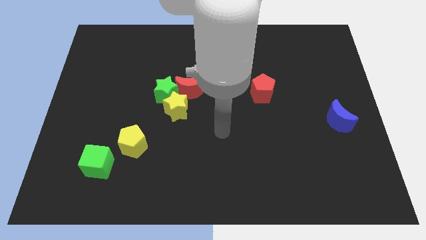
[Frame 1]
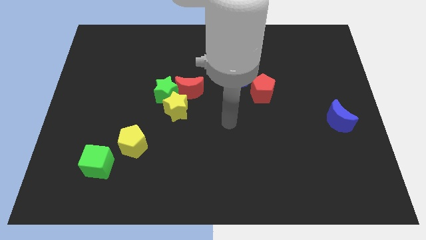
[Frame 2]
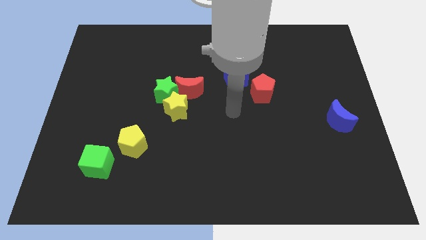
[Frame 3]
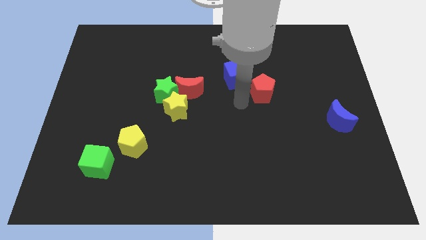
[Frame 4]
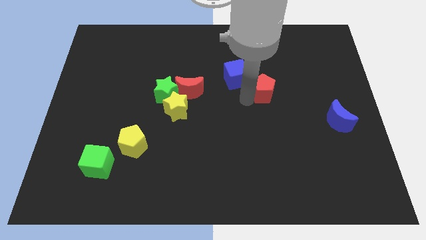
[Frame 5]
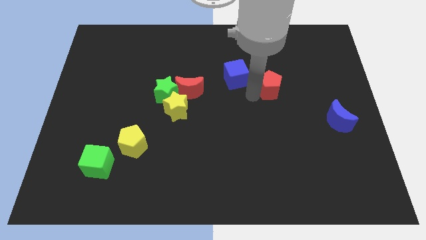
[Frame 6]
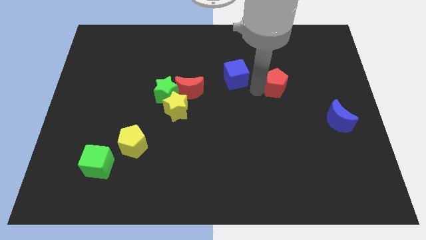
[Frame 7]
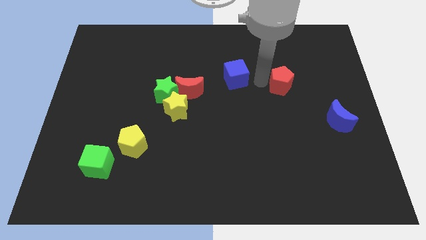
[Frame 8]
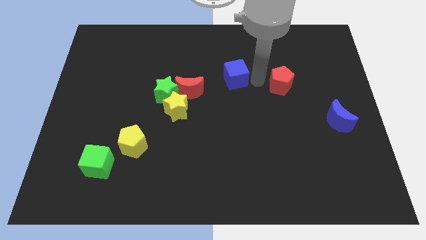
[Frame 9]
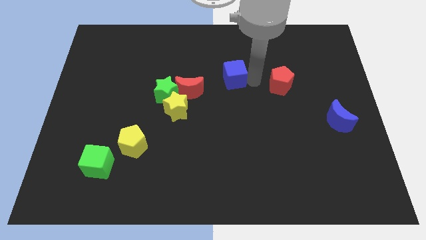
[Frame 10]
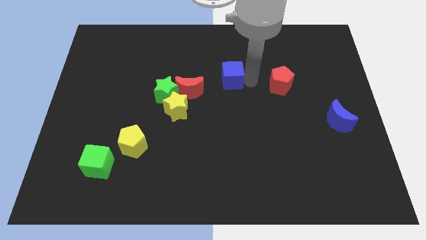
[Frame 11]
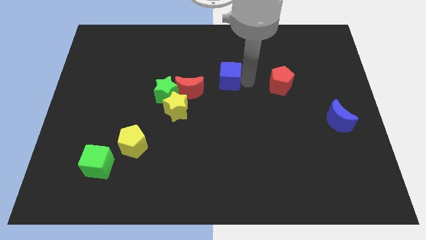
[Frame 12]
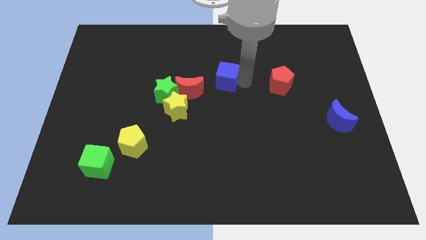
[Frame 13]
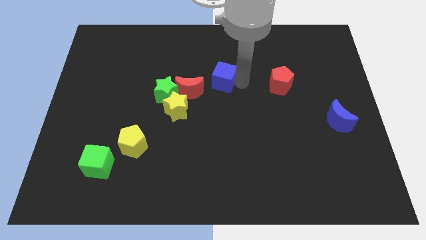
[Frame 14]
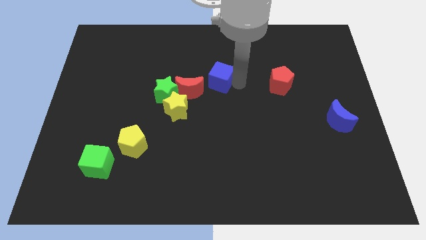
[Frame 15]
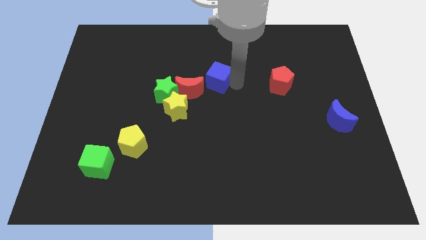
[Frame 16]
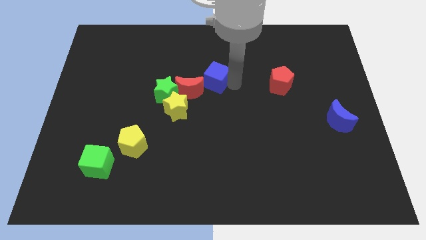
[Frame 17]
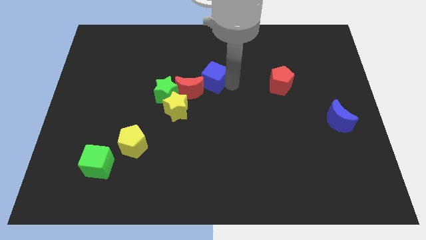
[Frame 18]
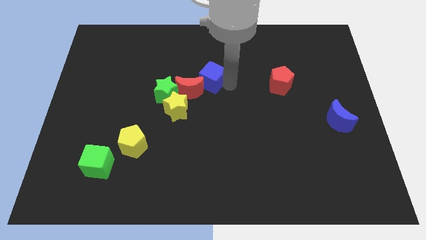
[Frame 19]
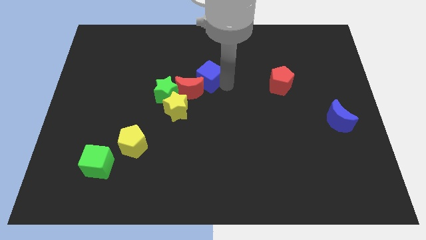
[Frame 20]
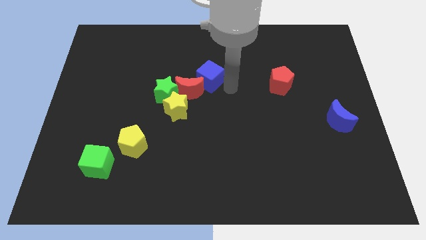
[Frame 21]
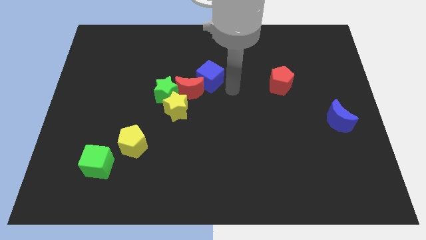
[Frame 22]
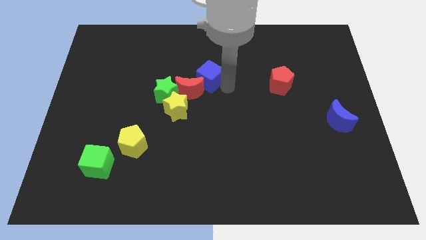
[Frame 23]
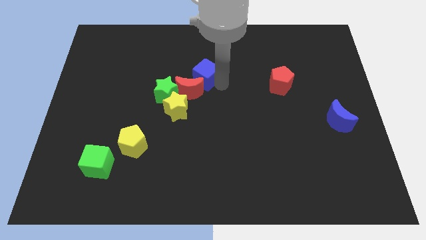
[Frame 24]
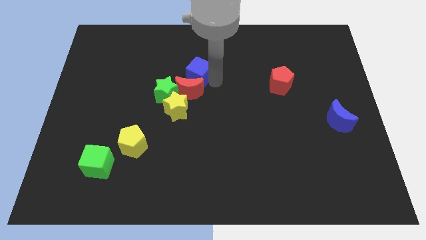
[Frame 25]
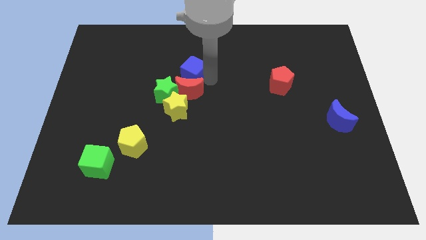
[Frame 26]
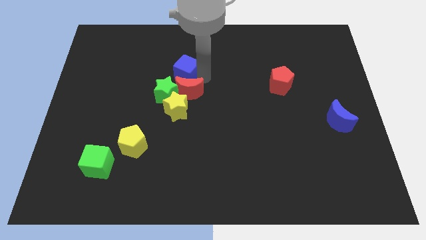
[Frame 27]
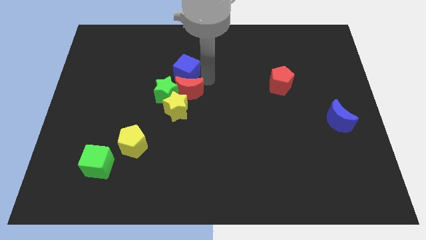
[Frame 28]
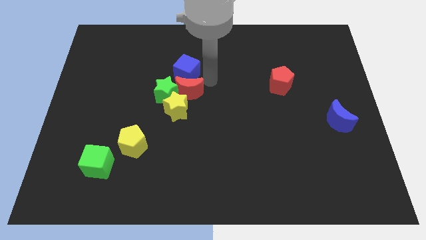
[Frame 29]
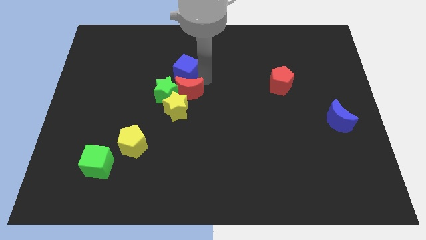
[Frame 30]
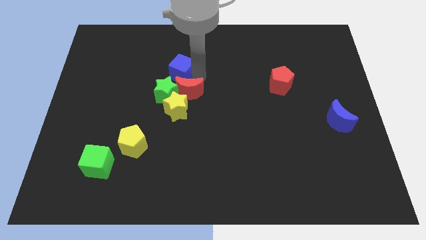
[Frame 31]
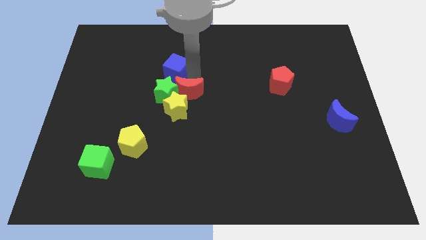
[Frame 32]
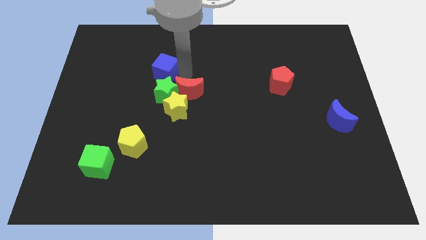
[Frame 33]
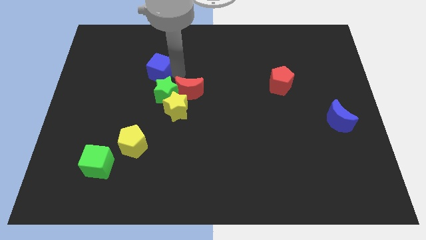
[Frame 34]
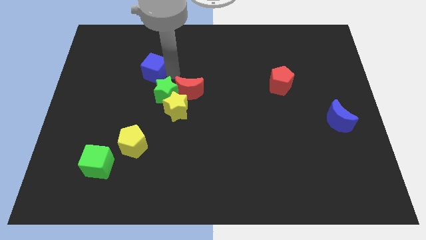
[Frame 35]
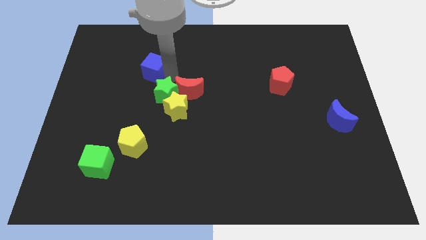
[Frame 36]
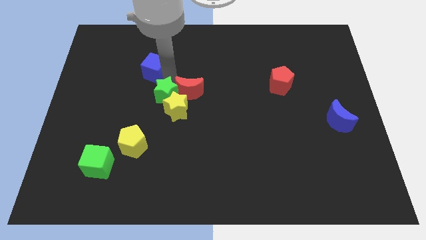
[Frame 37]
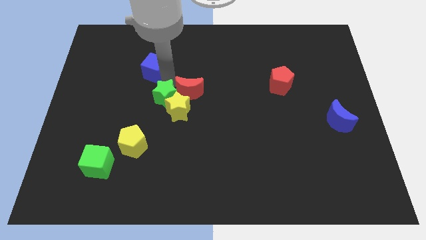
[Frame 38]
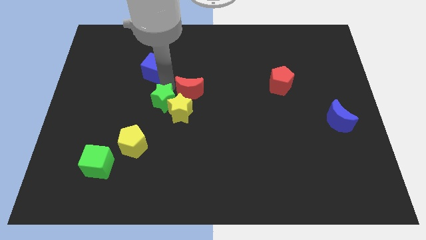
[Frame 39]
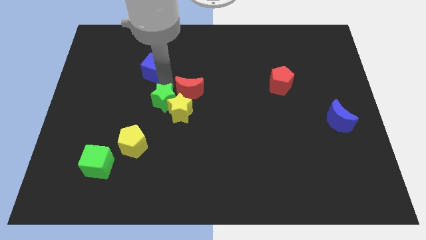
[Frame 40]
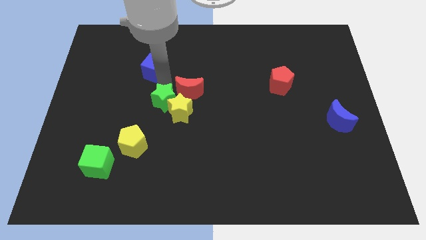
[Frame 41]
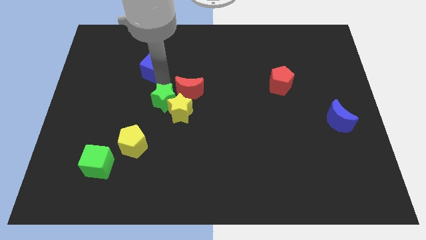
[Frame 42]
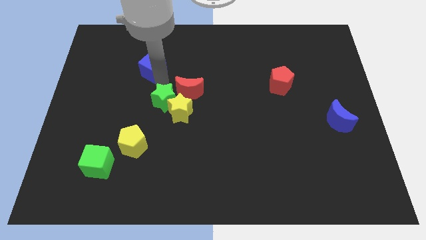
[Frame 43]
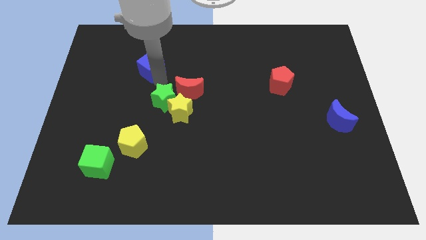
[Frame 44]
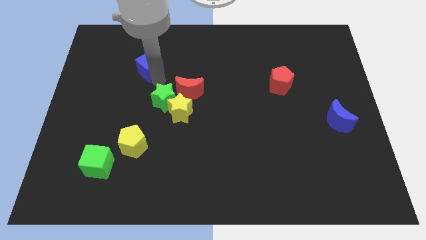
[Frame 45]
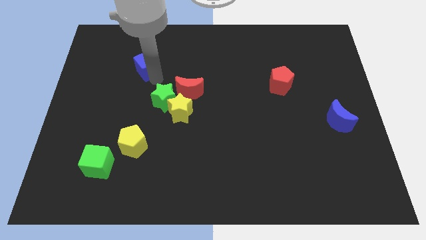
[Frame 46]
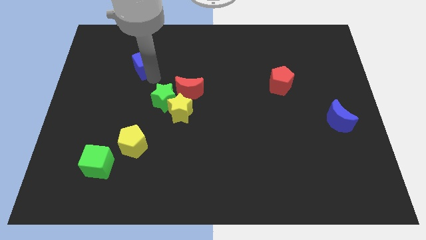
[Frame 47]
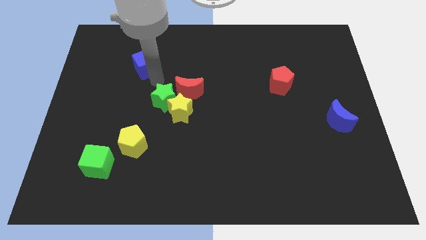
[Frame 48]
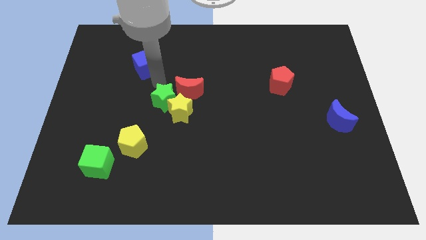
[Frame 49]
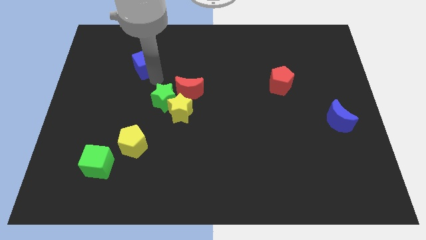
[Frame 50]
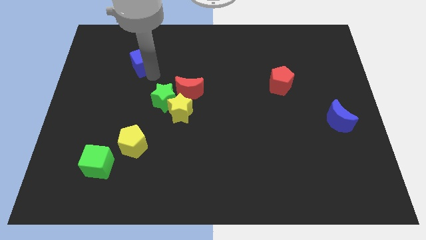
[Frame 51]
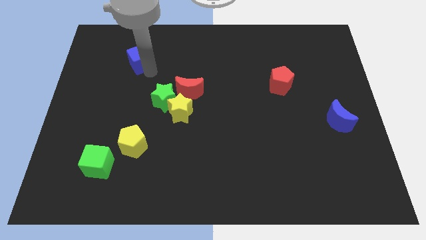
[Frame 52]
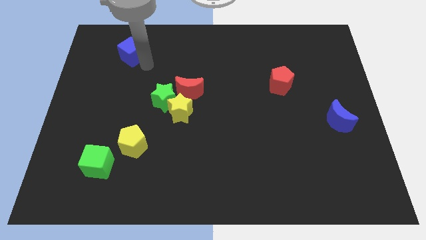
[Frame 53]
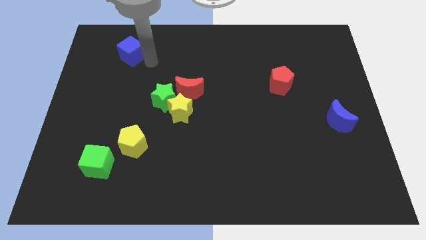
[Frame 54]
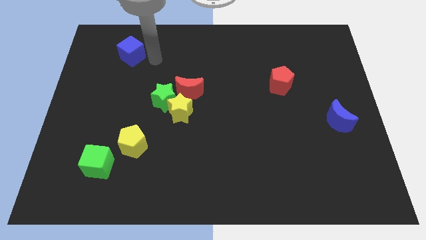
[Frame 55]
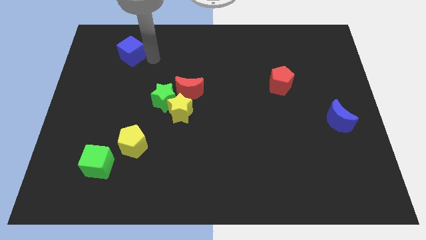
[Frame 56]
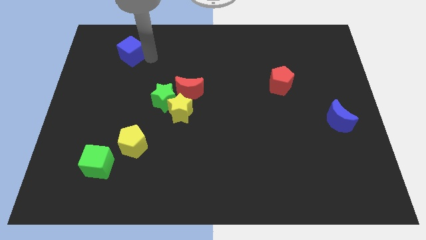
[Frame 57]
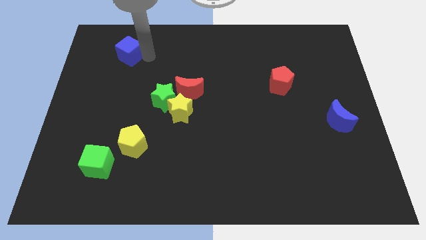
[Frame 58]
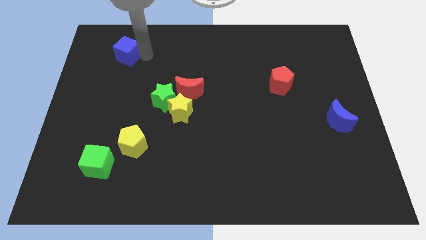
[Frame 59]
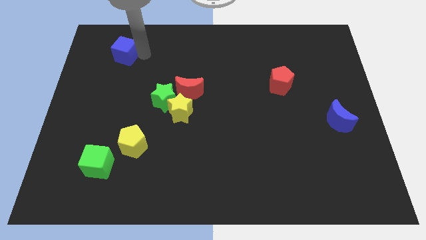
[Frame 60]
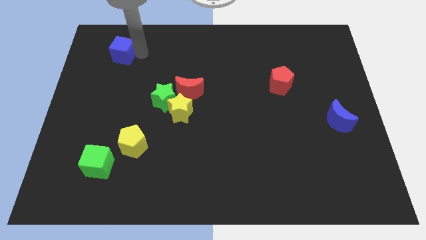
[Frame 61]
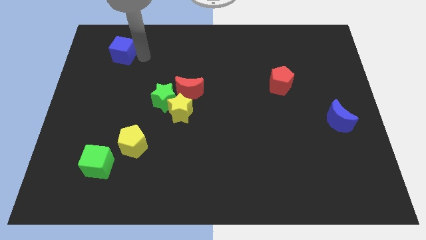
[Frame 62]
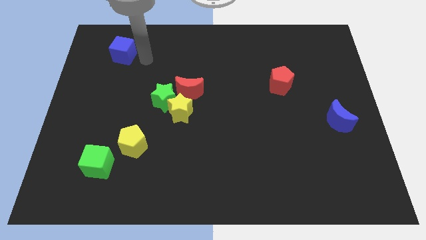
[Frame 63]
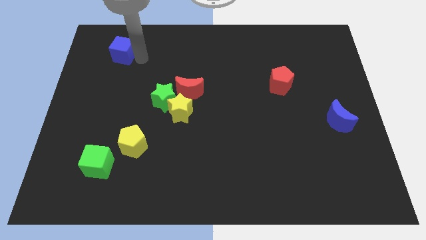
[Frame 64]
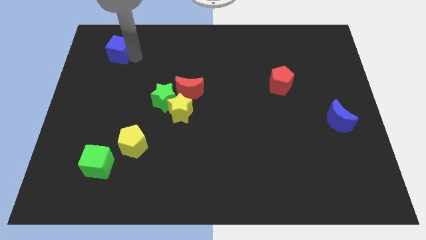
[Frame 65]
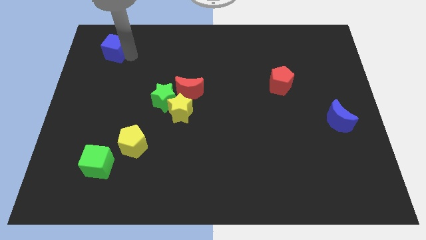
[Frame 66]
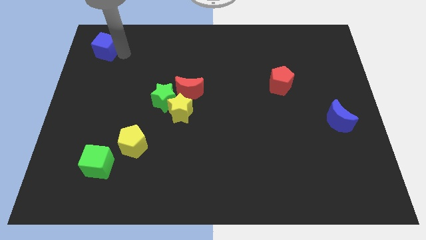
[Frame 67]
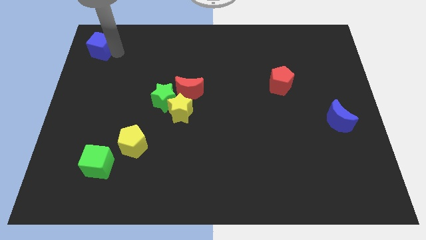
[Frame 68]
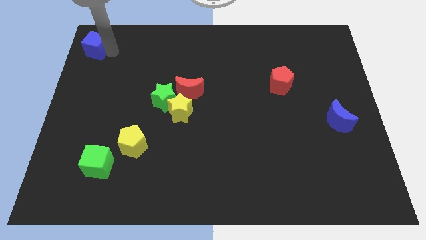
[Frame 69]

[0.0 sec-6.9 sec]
move the blue cube to the upper left corner

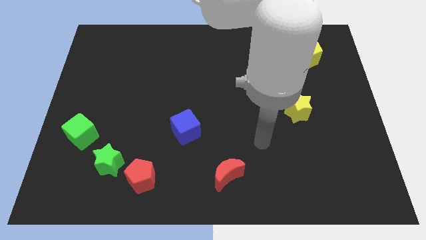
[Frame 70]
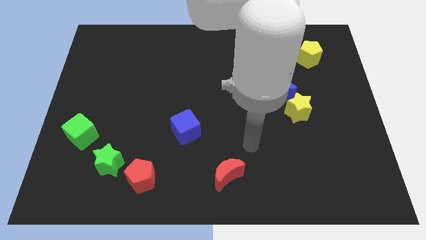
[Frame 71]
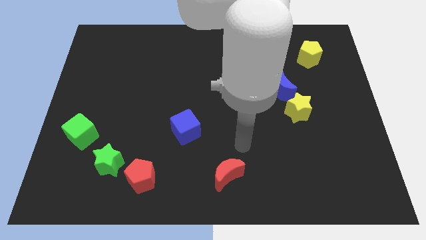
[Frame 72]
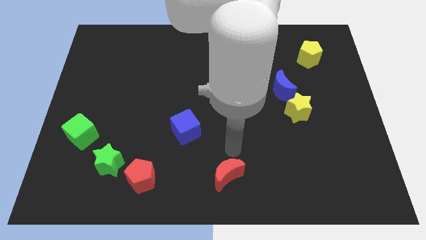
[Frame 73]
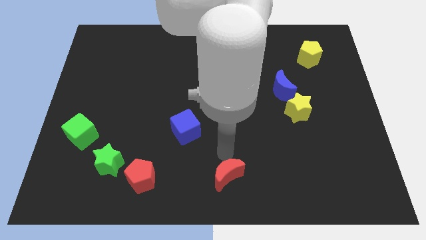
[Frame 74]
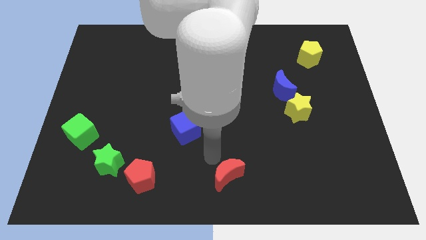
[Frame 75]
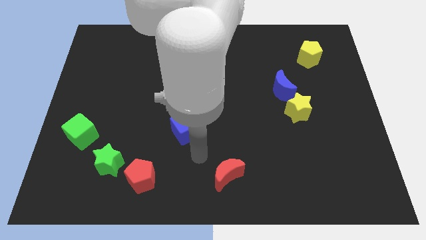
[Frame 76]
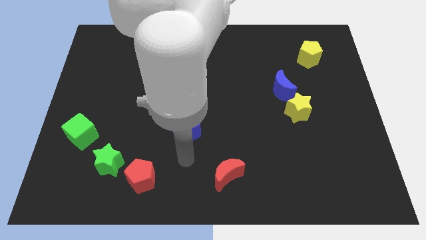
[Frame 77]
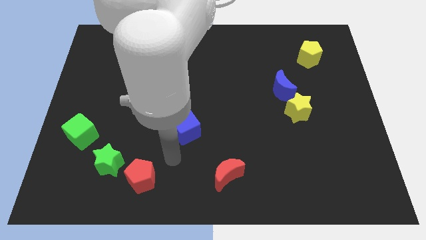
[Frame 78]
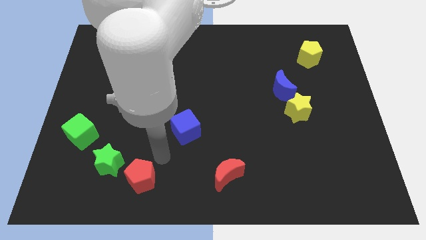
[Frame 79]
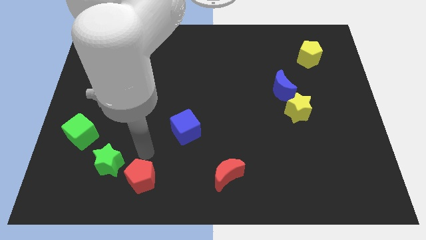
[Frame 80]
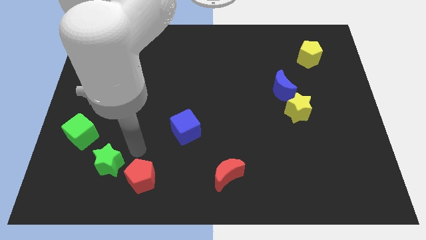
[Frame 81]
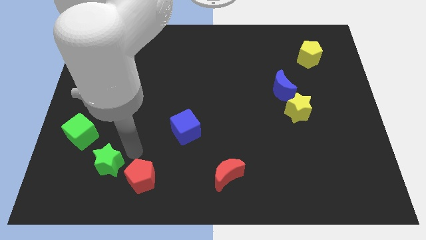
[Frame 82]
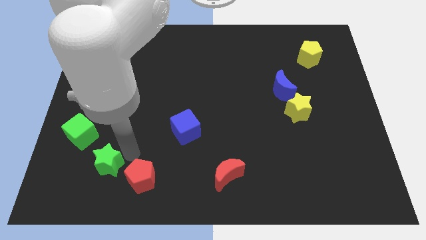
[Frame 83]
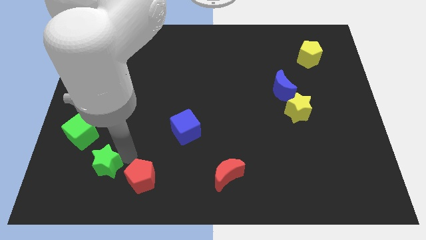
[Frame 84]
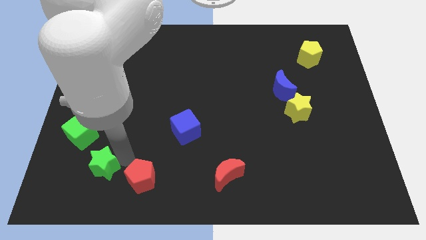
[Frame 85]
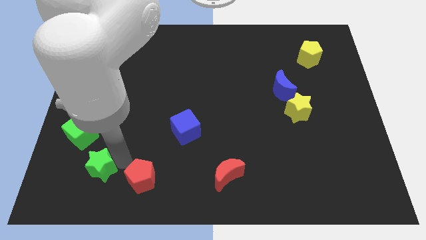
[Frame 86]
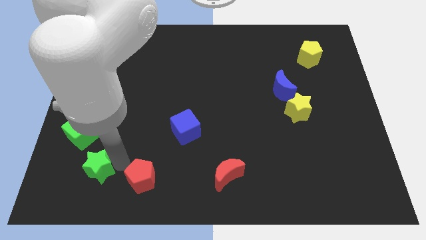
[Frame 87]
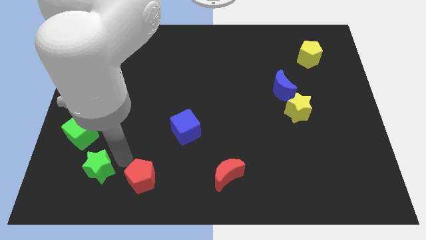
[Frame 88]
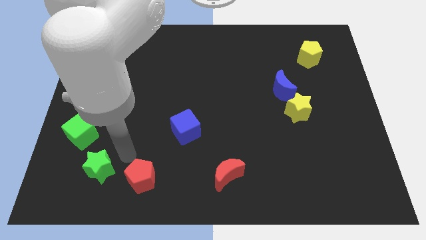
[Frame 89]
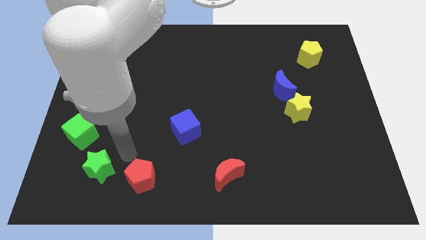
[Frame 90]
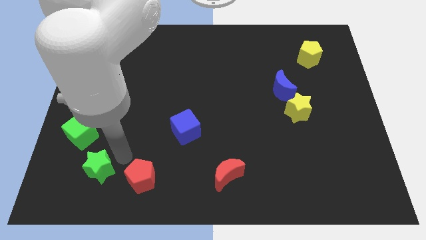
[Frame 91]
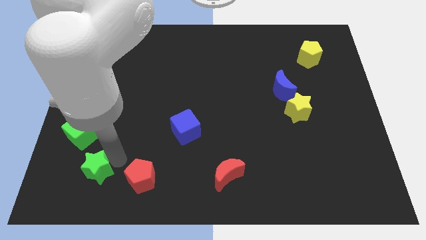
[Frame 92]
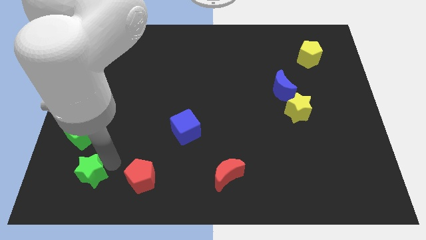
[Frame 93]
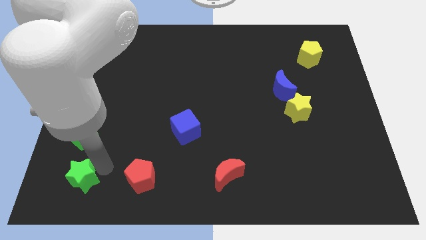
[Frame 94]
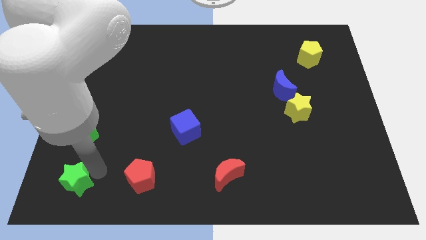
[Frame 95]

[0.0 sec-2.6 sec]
move the green star to the bottom left
